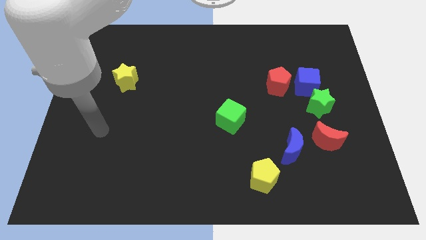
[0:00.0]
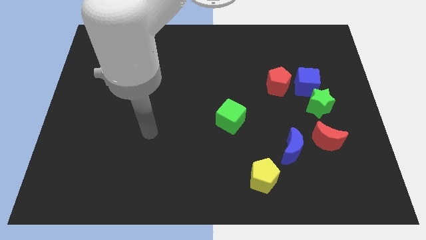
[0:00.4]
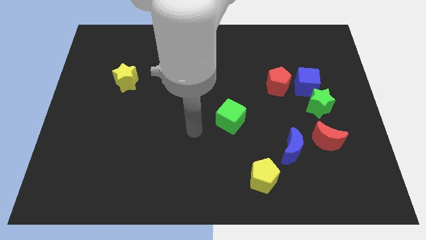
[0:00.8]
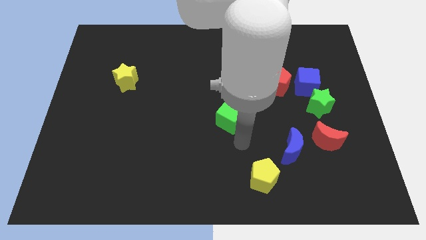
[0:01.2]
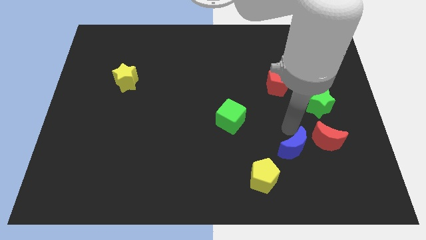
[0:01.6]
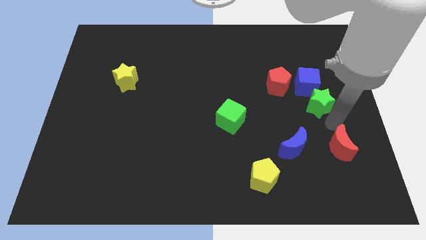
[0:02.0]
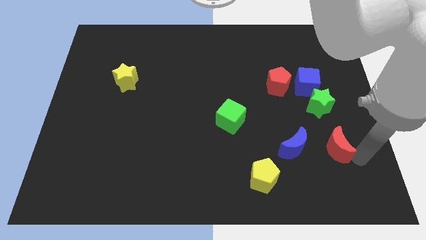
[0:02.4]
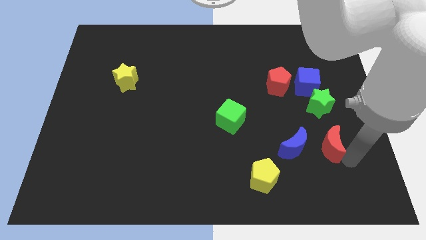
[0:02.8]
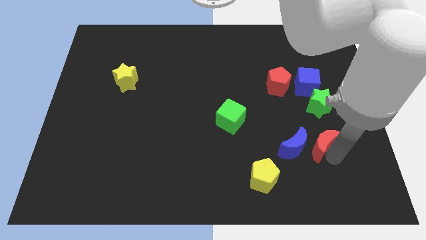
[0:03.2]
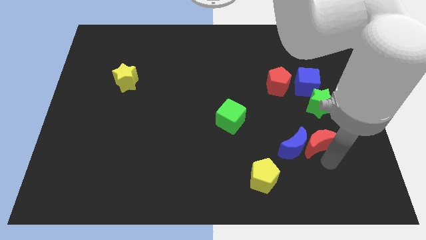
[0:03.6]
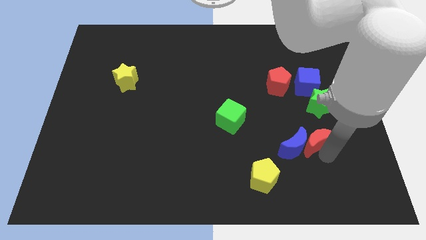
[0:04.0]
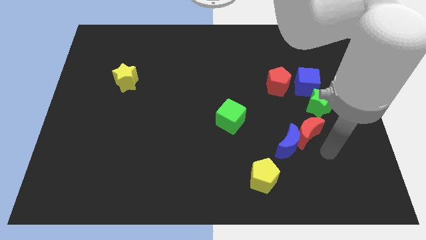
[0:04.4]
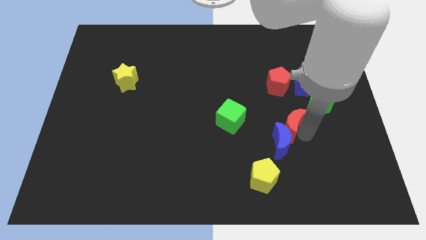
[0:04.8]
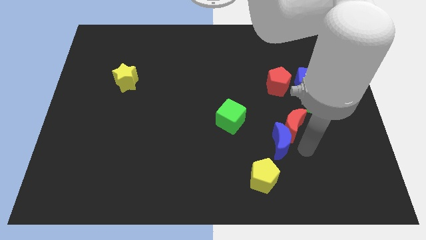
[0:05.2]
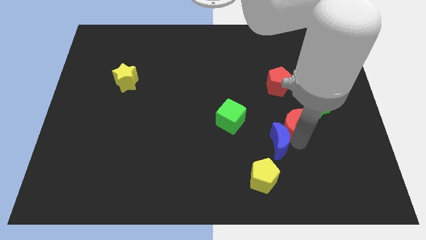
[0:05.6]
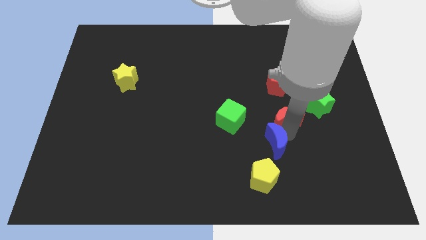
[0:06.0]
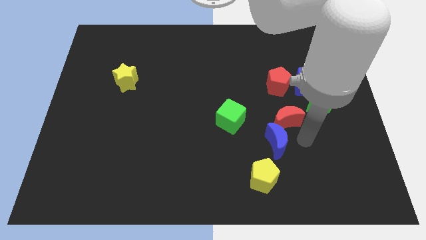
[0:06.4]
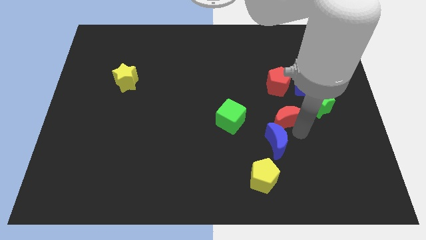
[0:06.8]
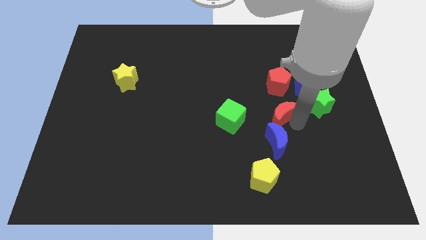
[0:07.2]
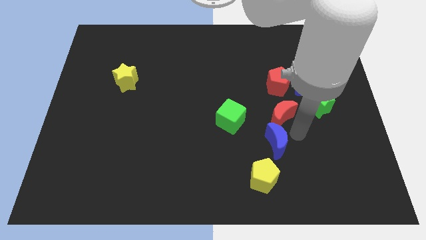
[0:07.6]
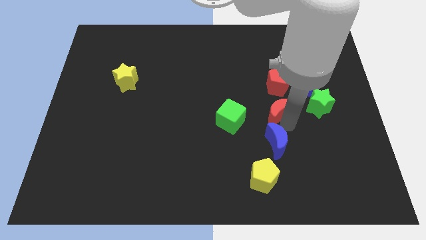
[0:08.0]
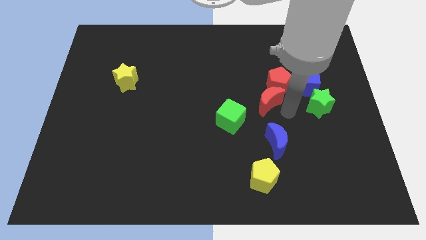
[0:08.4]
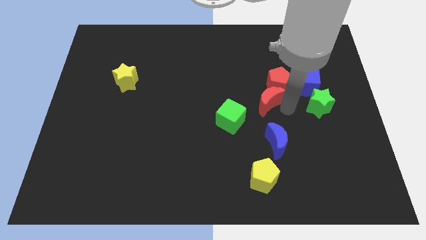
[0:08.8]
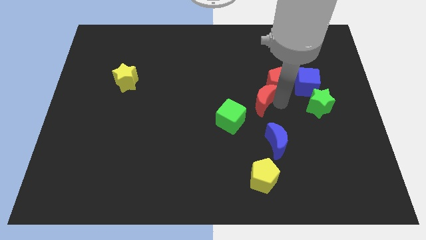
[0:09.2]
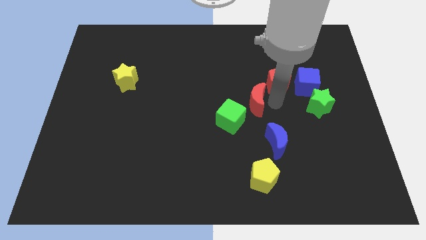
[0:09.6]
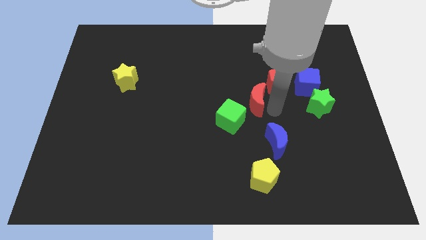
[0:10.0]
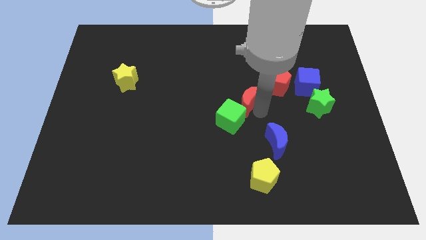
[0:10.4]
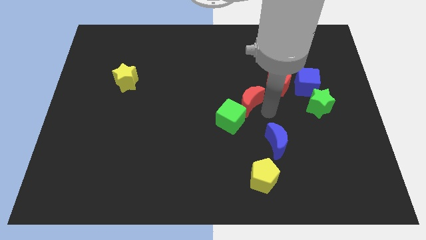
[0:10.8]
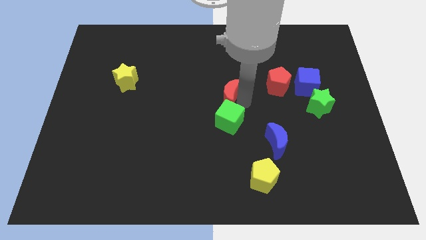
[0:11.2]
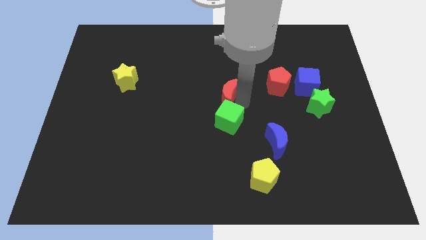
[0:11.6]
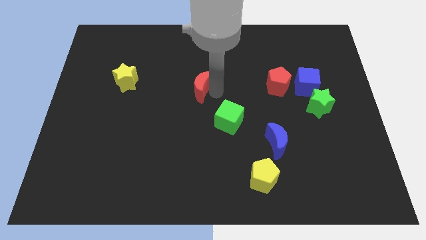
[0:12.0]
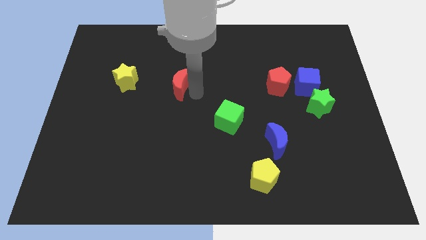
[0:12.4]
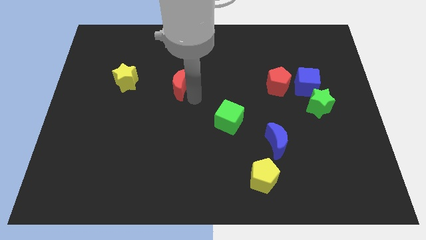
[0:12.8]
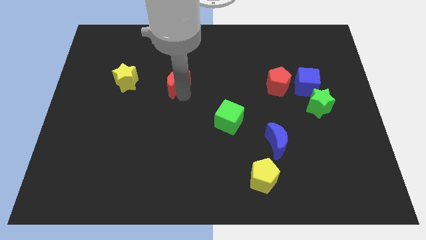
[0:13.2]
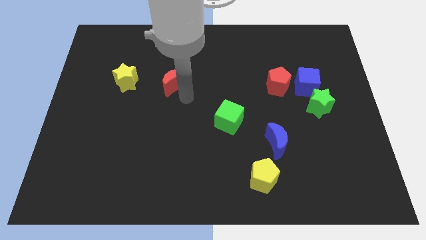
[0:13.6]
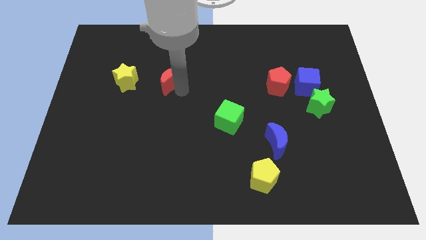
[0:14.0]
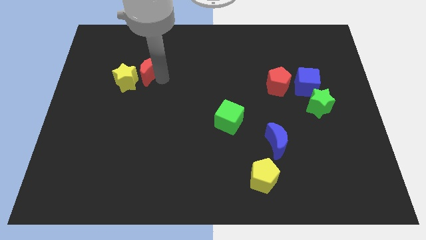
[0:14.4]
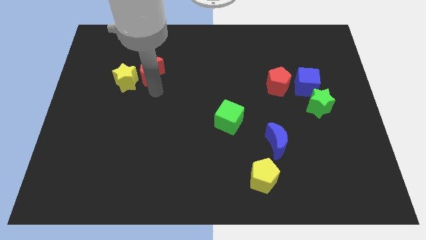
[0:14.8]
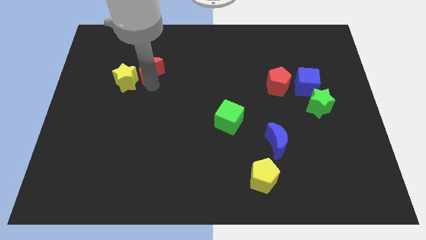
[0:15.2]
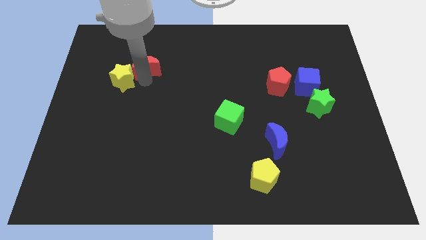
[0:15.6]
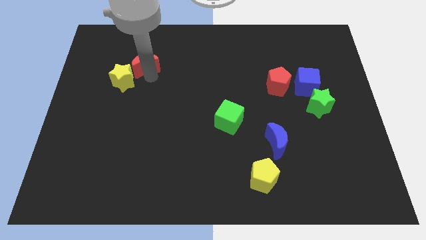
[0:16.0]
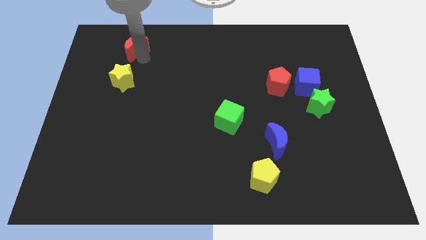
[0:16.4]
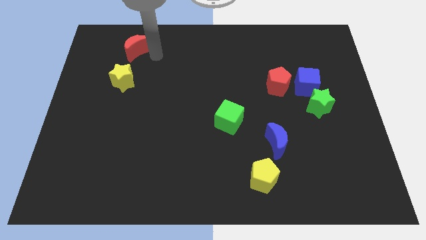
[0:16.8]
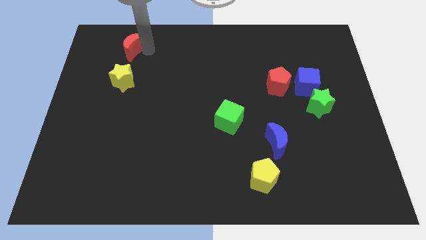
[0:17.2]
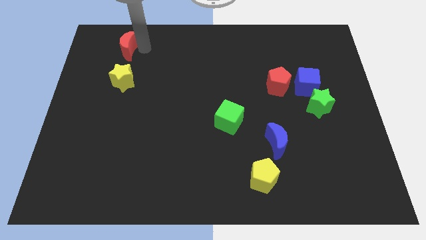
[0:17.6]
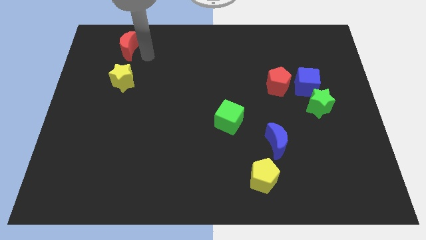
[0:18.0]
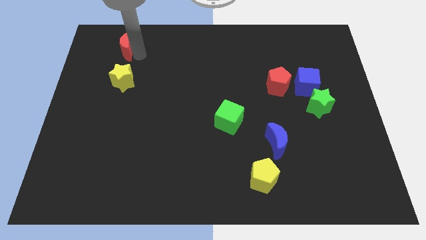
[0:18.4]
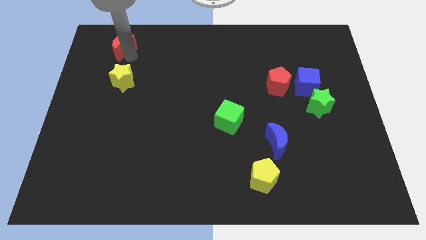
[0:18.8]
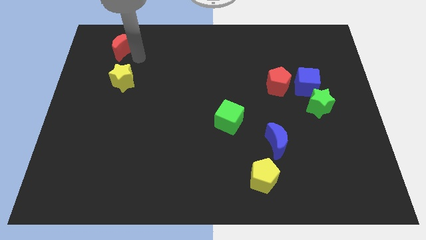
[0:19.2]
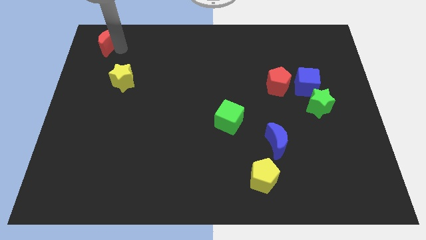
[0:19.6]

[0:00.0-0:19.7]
move the red moon to the top left of the board
